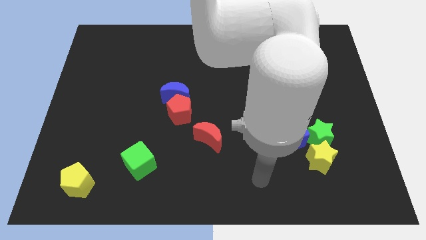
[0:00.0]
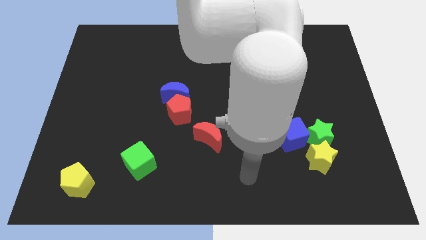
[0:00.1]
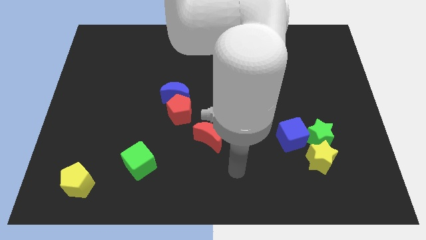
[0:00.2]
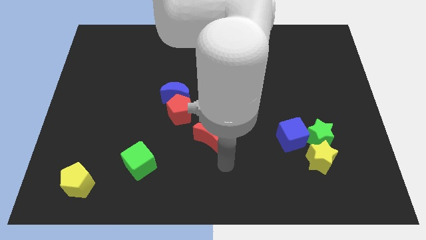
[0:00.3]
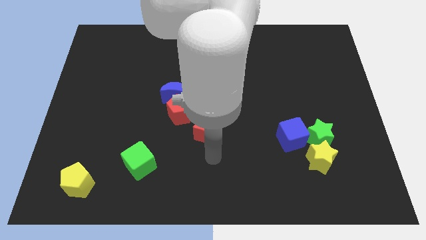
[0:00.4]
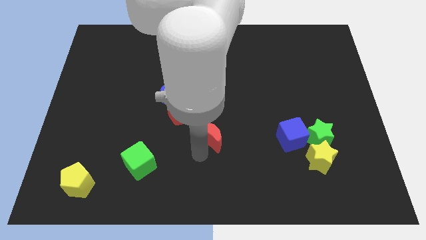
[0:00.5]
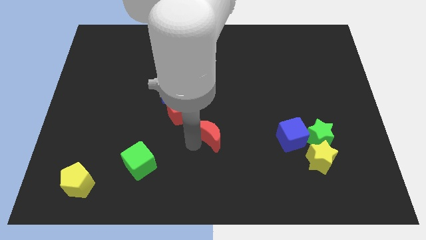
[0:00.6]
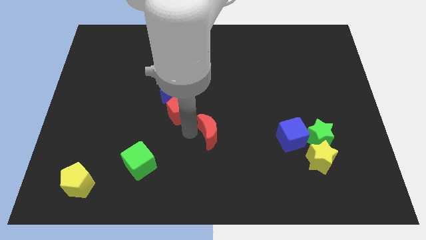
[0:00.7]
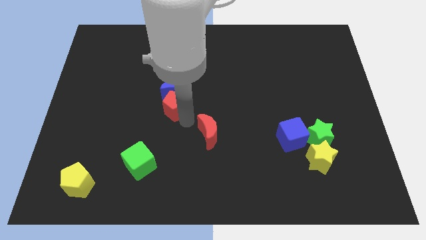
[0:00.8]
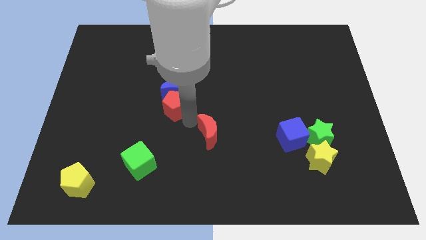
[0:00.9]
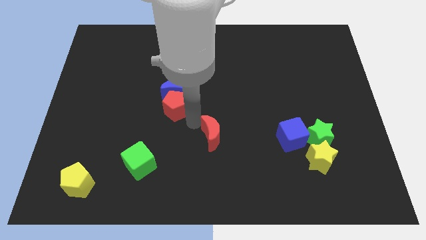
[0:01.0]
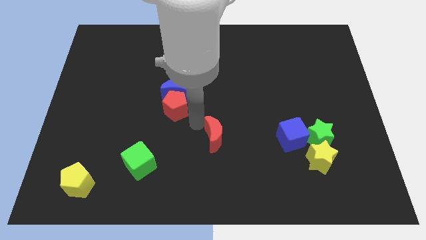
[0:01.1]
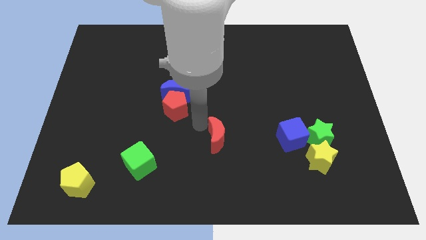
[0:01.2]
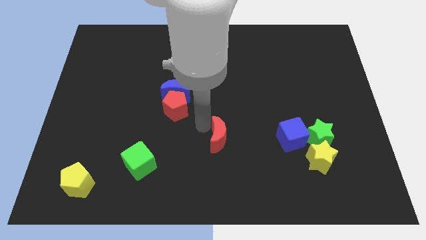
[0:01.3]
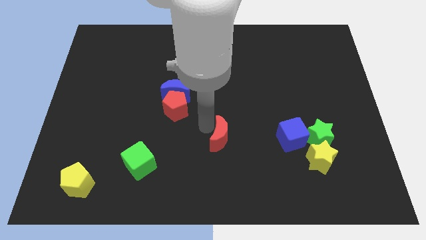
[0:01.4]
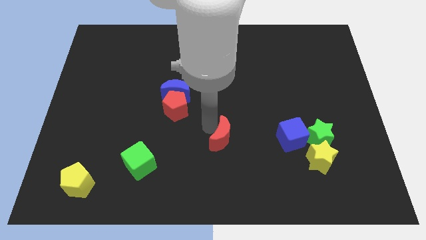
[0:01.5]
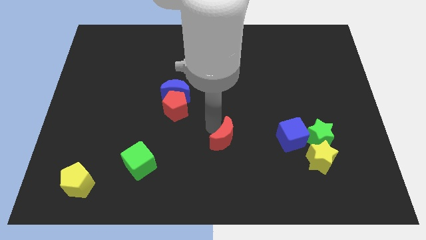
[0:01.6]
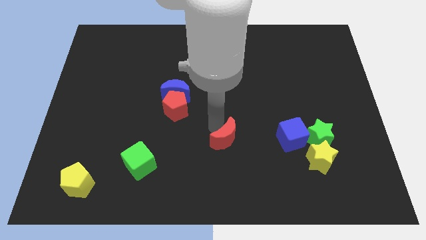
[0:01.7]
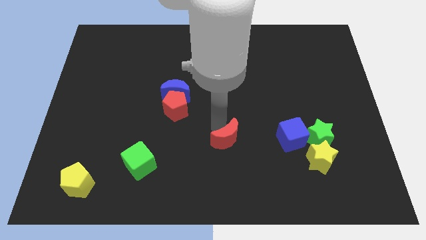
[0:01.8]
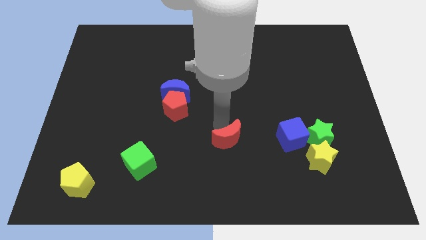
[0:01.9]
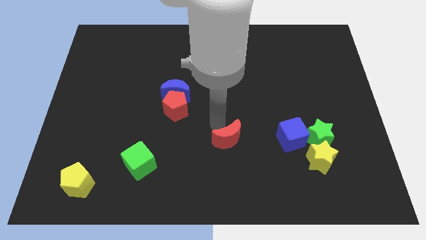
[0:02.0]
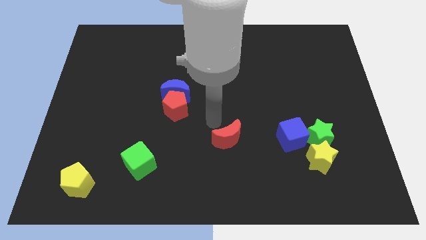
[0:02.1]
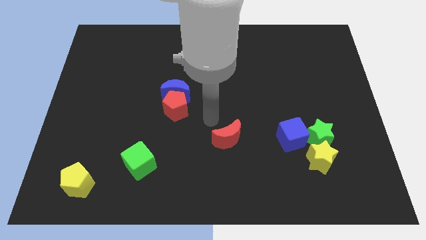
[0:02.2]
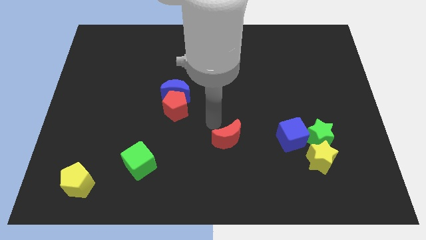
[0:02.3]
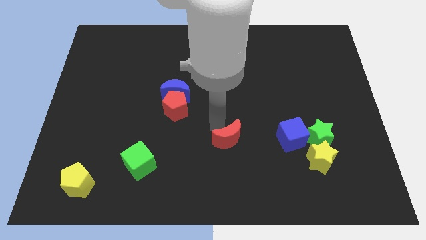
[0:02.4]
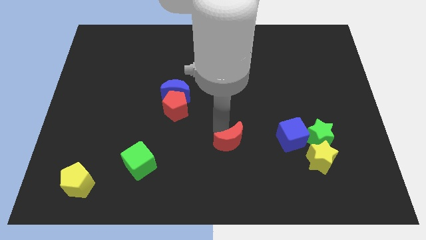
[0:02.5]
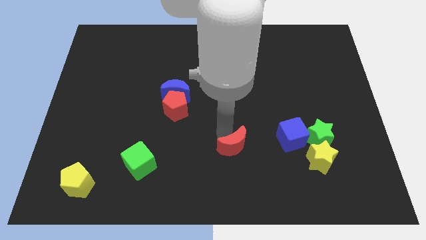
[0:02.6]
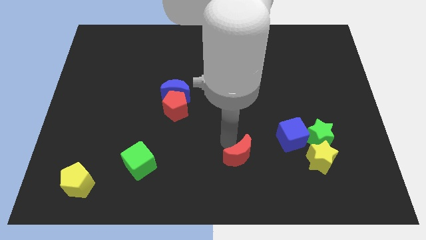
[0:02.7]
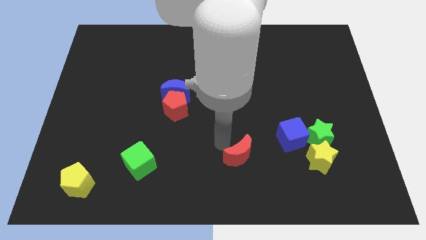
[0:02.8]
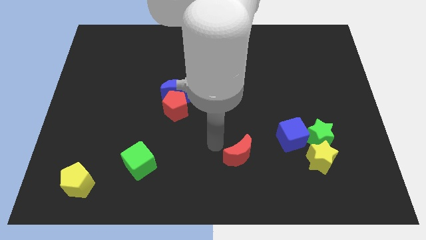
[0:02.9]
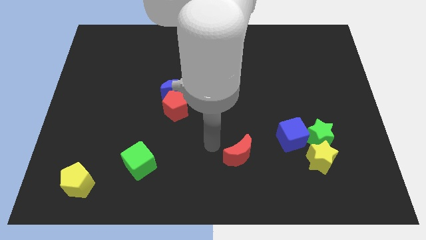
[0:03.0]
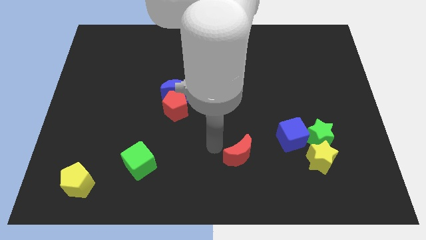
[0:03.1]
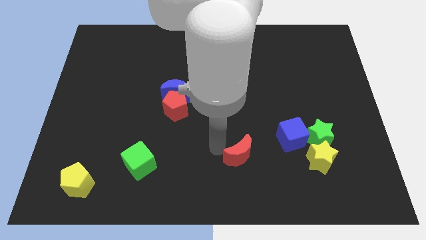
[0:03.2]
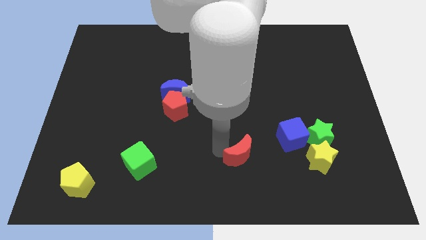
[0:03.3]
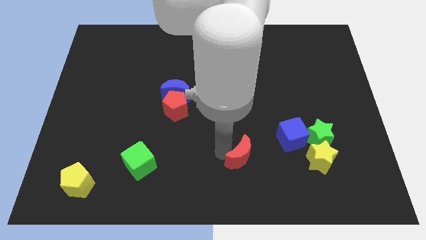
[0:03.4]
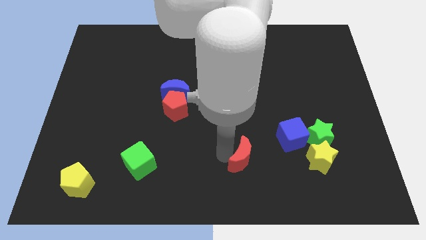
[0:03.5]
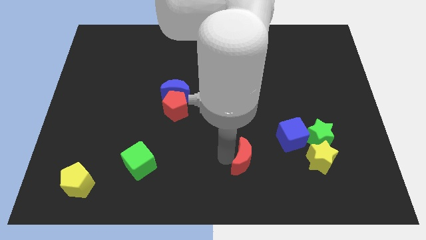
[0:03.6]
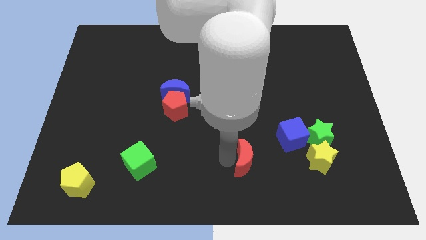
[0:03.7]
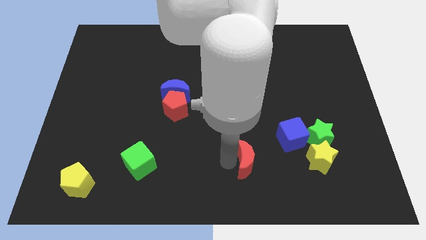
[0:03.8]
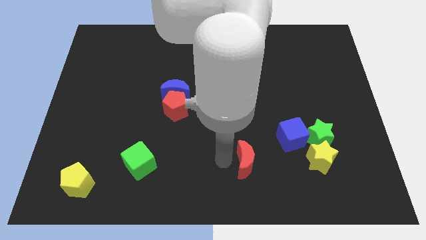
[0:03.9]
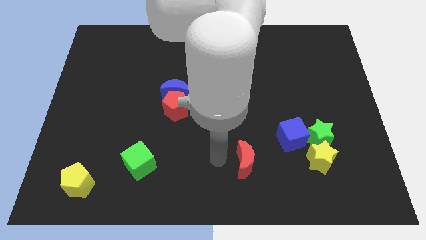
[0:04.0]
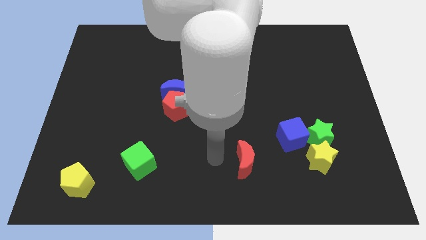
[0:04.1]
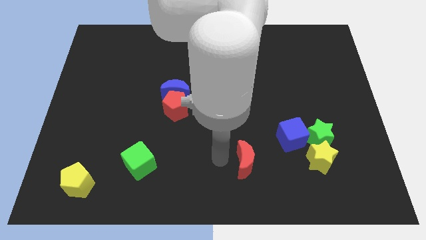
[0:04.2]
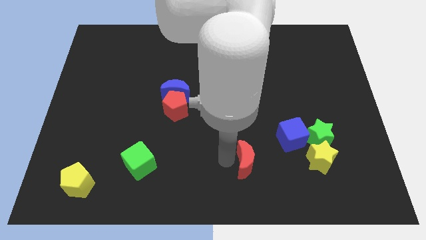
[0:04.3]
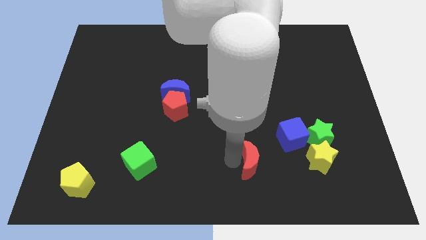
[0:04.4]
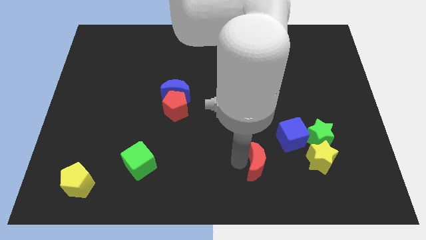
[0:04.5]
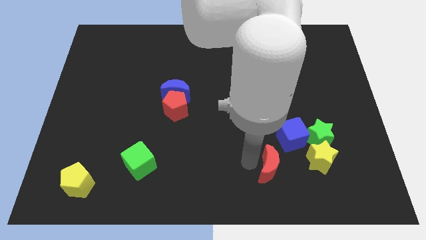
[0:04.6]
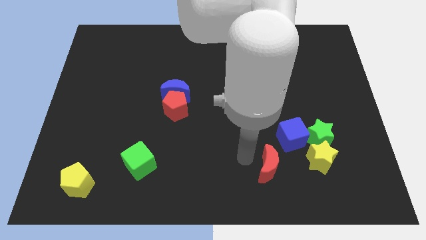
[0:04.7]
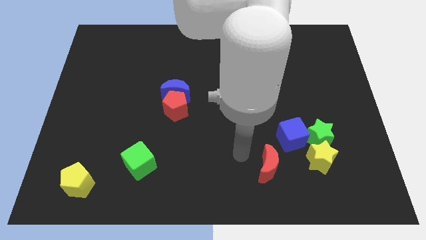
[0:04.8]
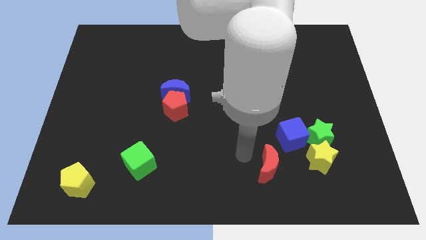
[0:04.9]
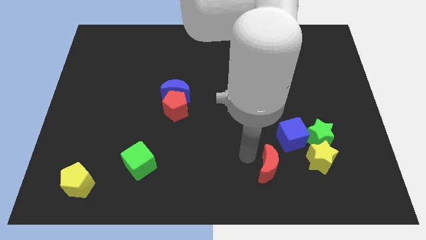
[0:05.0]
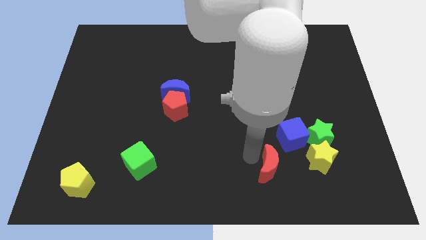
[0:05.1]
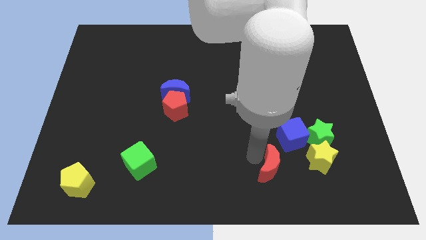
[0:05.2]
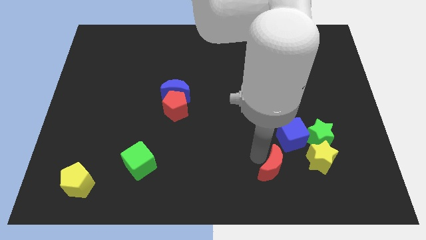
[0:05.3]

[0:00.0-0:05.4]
move the red moon to the bottom of the blue cube

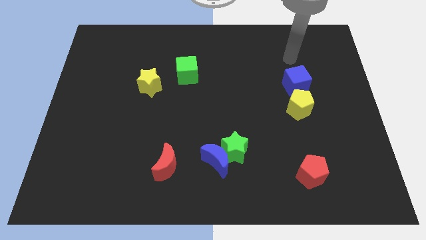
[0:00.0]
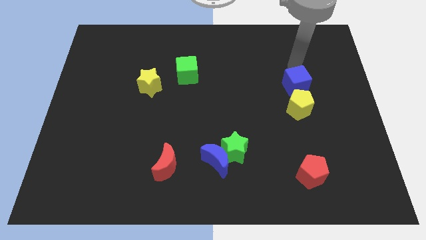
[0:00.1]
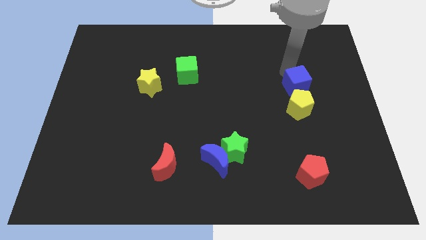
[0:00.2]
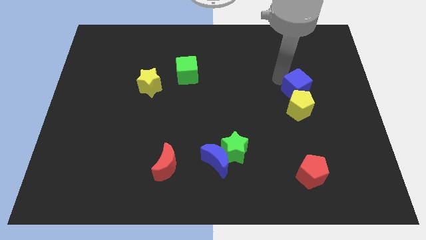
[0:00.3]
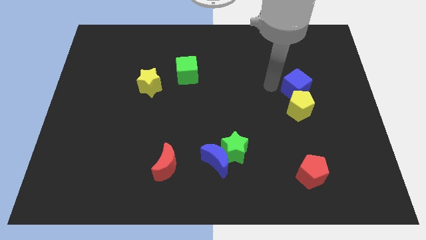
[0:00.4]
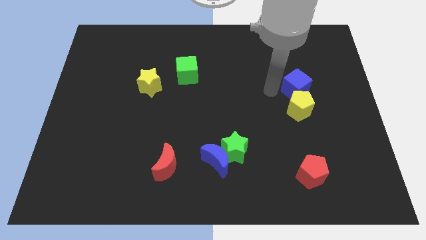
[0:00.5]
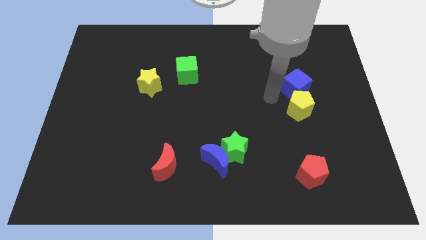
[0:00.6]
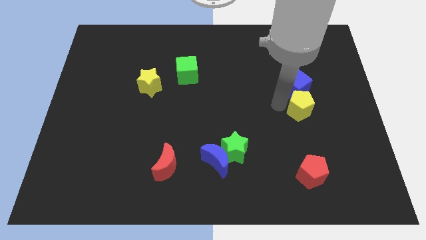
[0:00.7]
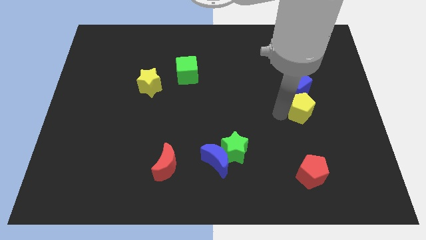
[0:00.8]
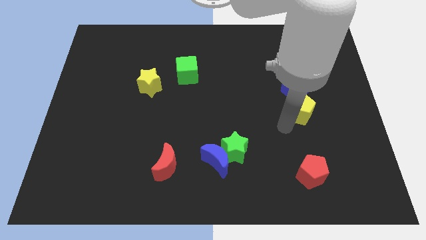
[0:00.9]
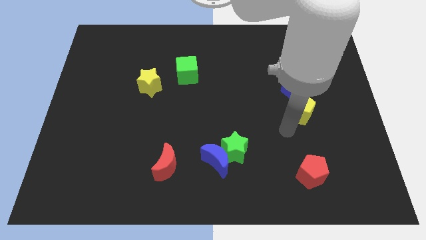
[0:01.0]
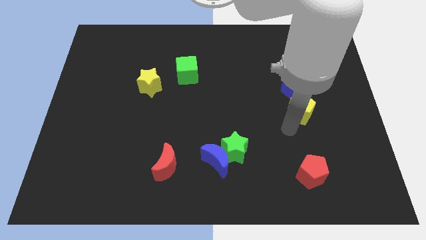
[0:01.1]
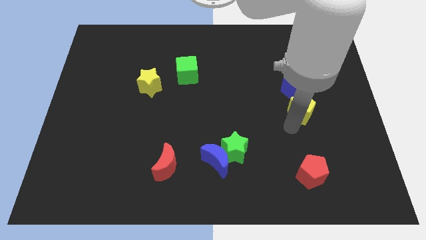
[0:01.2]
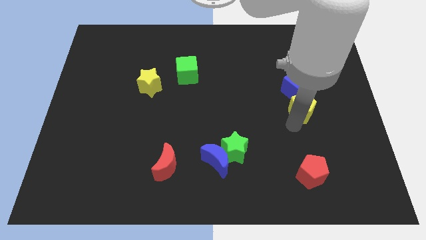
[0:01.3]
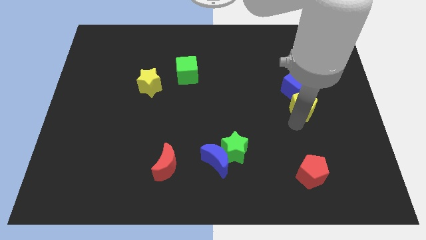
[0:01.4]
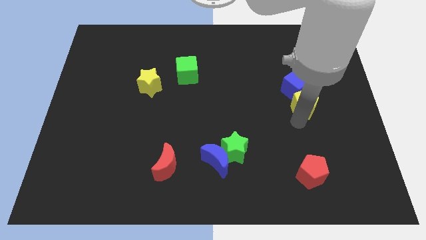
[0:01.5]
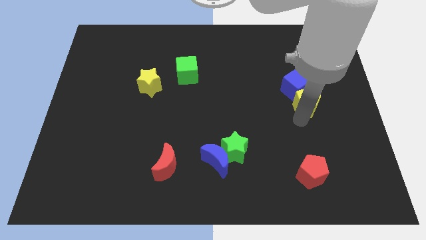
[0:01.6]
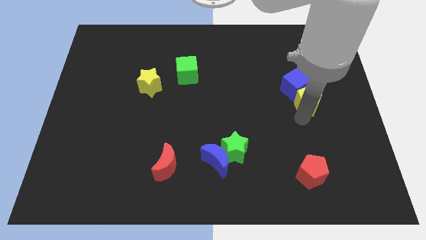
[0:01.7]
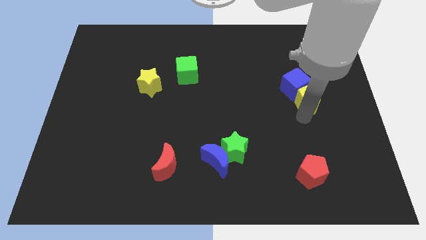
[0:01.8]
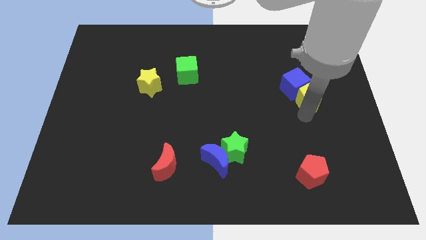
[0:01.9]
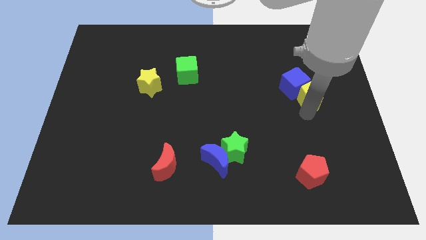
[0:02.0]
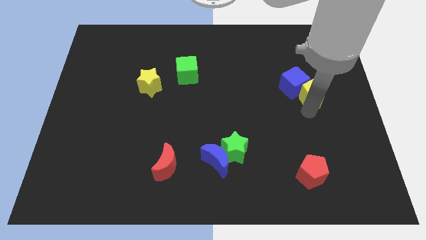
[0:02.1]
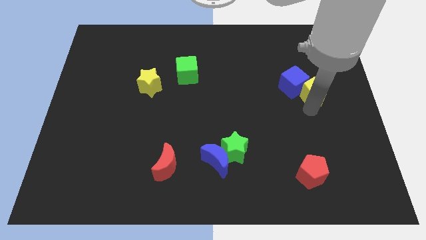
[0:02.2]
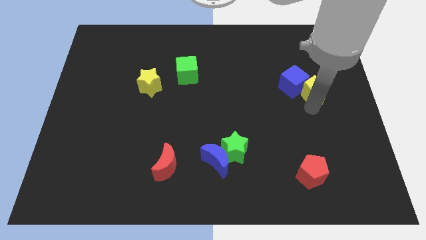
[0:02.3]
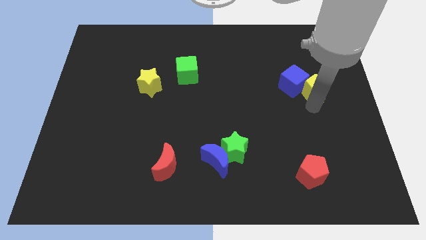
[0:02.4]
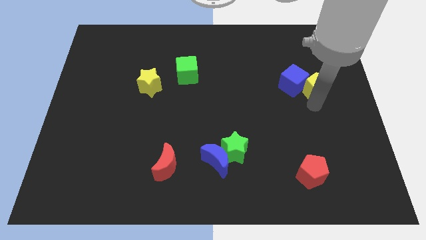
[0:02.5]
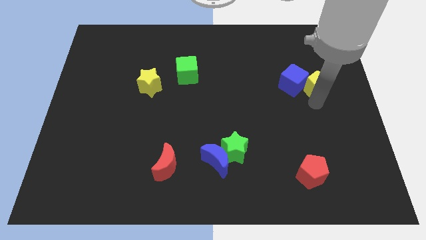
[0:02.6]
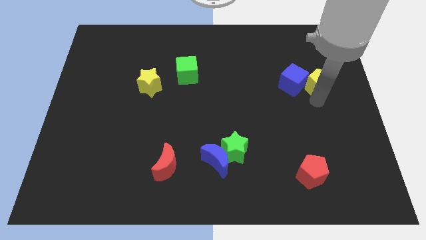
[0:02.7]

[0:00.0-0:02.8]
push the yellow pentagon to the top right side of the blue cube
